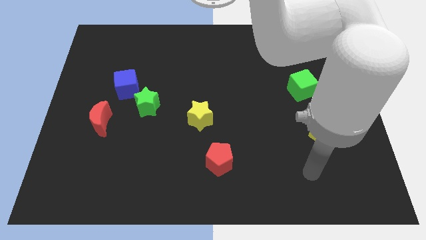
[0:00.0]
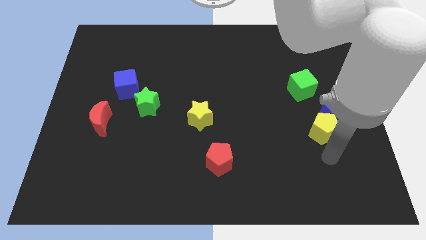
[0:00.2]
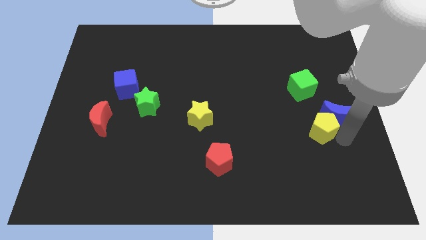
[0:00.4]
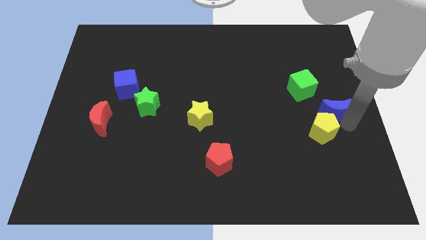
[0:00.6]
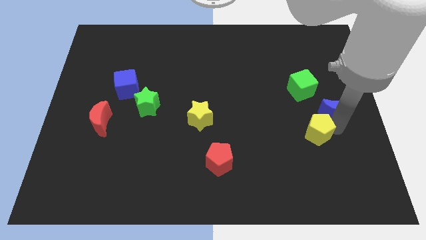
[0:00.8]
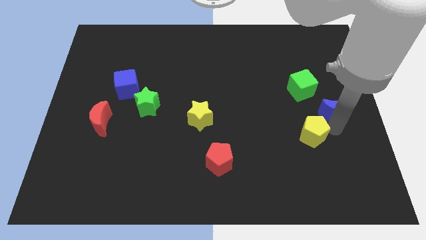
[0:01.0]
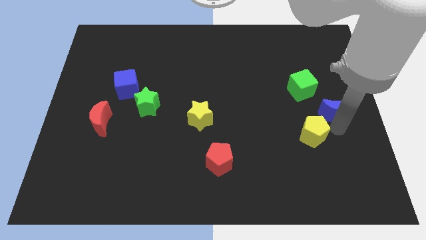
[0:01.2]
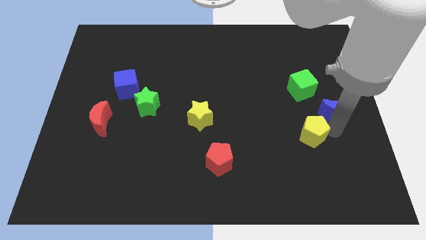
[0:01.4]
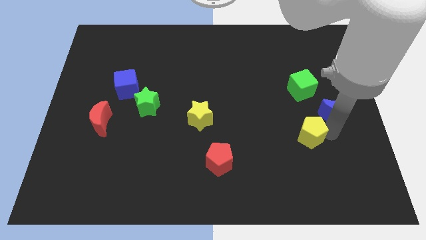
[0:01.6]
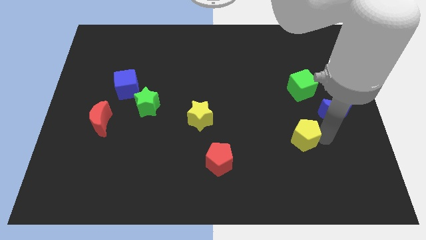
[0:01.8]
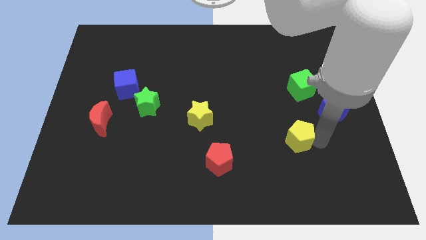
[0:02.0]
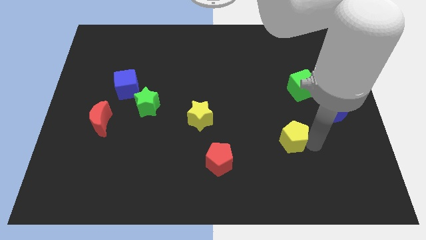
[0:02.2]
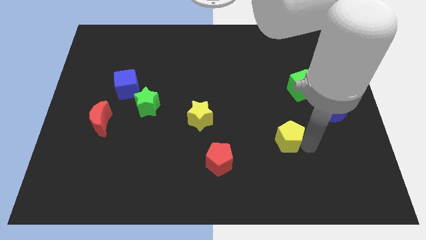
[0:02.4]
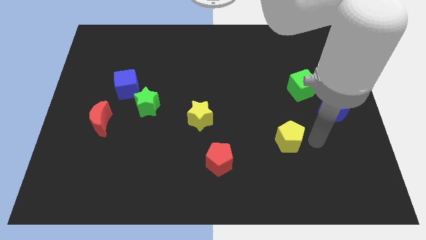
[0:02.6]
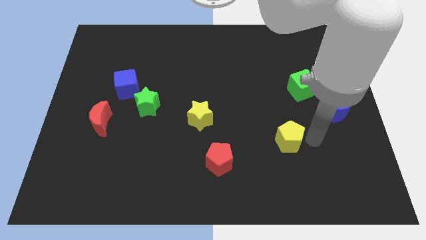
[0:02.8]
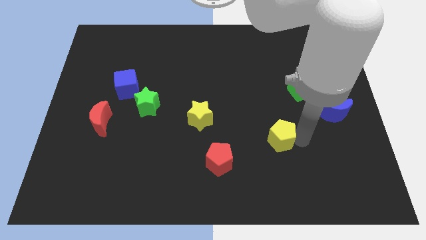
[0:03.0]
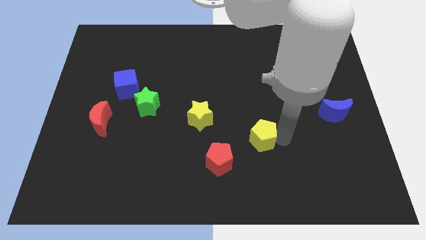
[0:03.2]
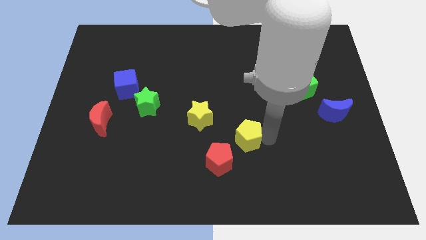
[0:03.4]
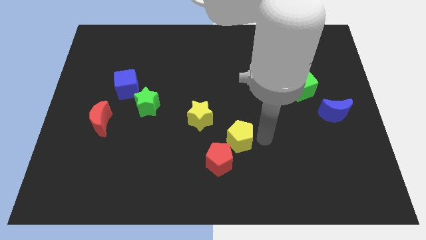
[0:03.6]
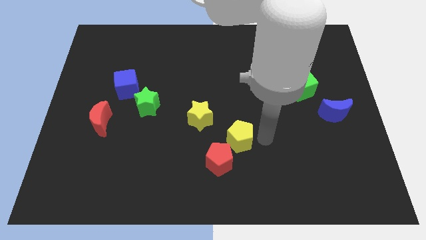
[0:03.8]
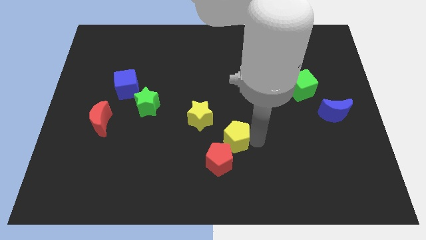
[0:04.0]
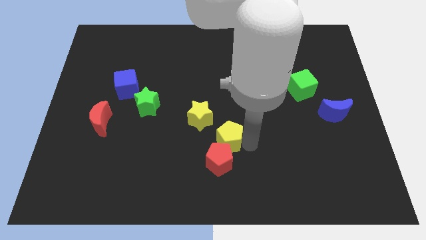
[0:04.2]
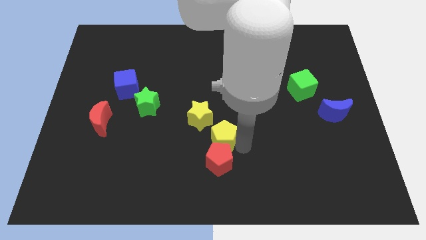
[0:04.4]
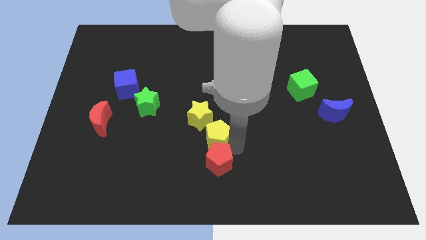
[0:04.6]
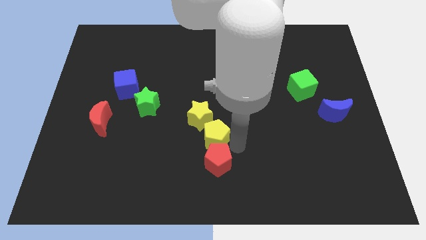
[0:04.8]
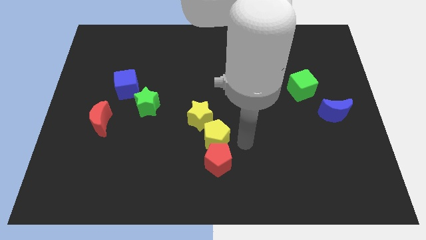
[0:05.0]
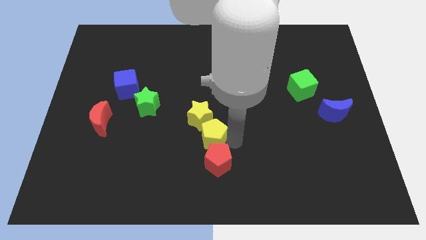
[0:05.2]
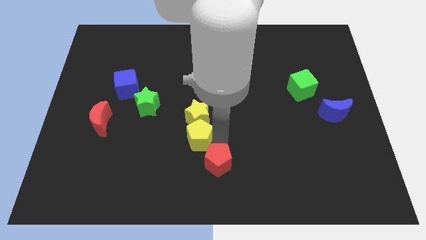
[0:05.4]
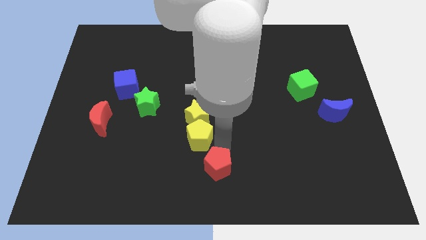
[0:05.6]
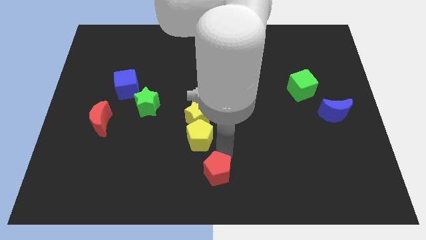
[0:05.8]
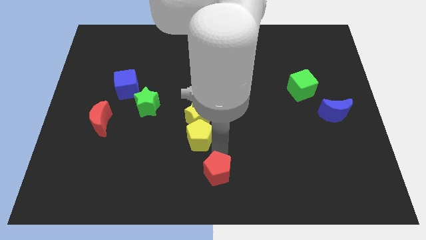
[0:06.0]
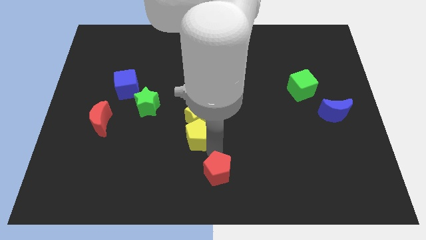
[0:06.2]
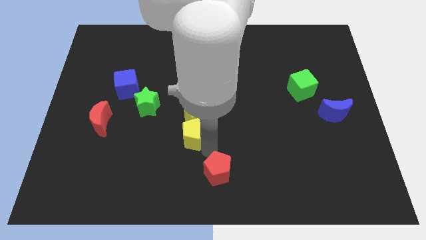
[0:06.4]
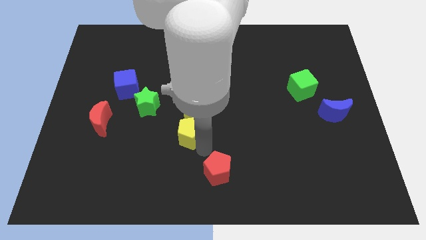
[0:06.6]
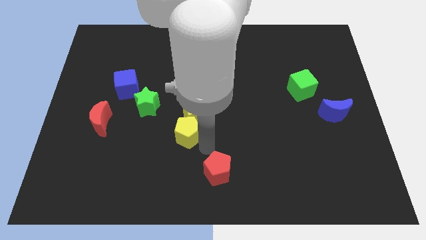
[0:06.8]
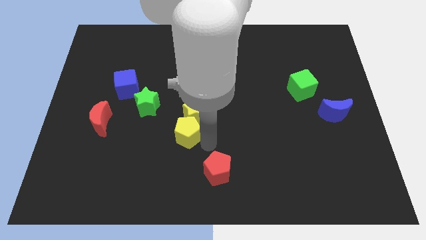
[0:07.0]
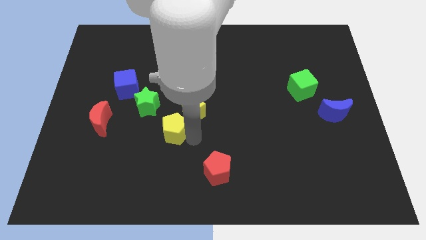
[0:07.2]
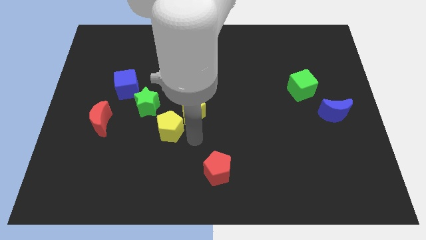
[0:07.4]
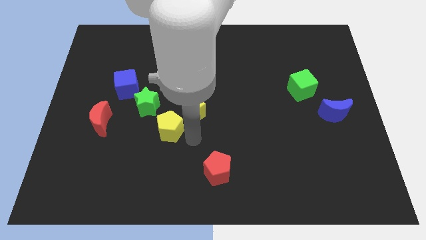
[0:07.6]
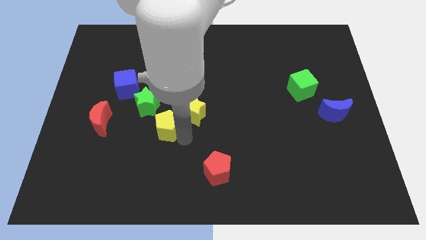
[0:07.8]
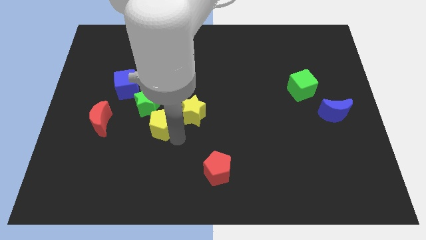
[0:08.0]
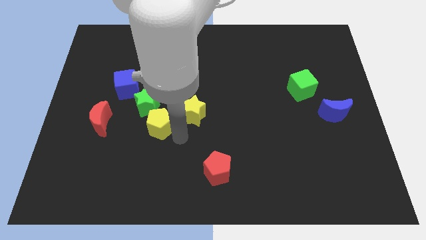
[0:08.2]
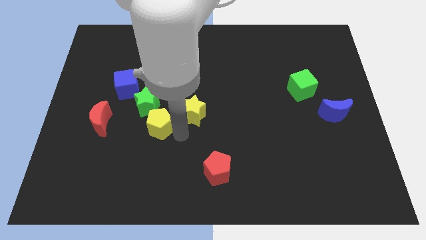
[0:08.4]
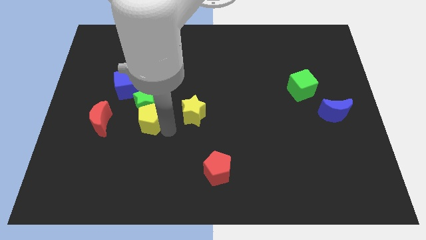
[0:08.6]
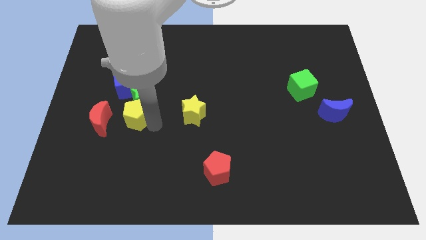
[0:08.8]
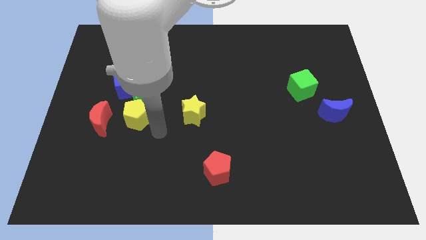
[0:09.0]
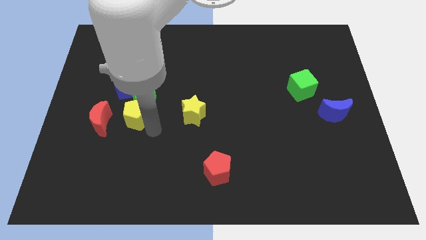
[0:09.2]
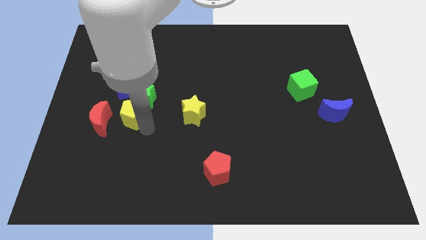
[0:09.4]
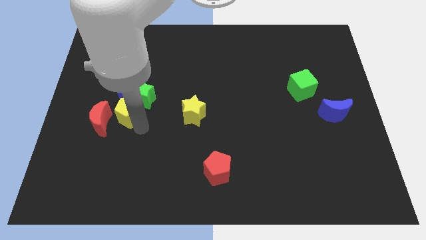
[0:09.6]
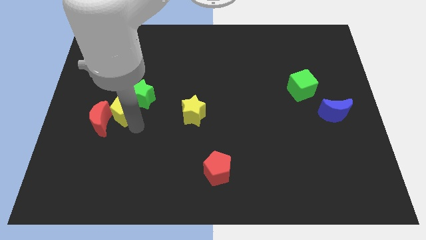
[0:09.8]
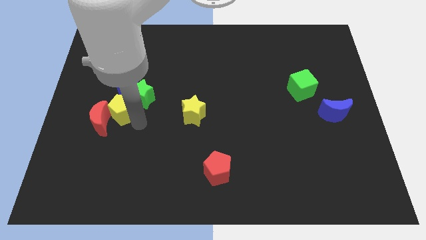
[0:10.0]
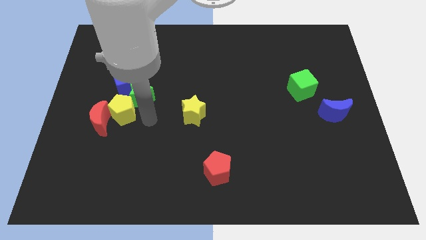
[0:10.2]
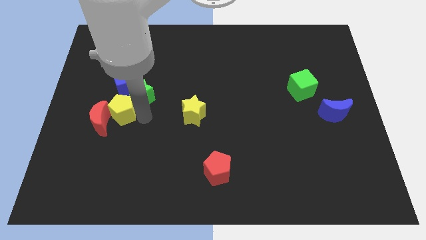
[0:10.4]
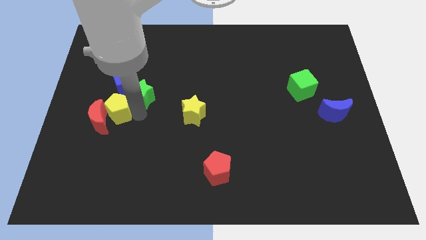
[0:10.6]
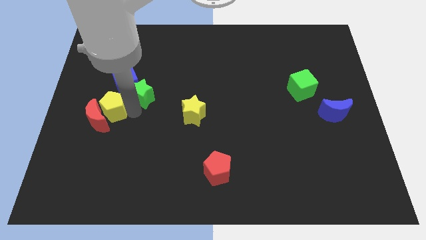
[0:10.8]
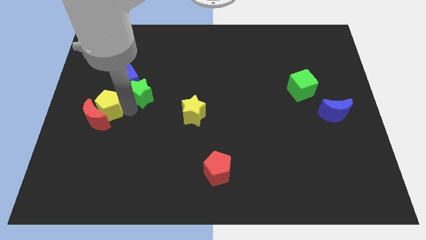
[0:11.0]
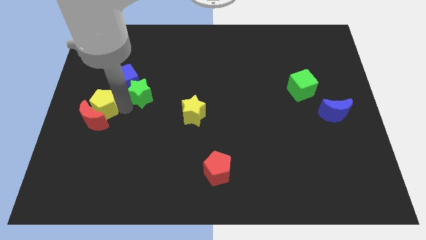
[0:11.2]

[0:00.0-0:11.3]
push the yellow pentagon to the left side
